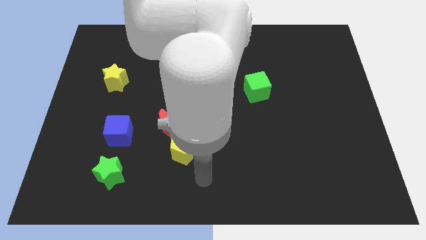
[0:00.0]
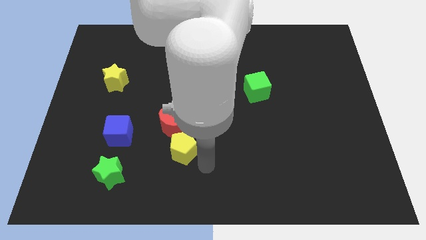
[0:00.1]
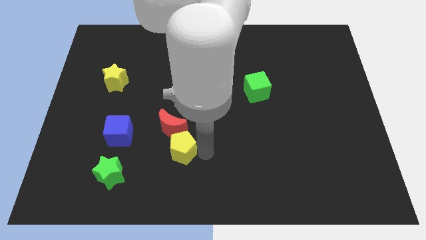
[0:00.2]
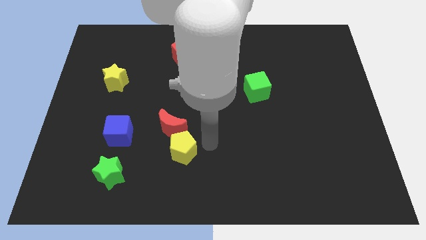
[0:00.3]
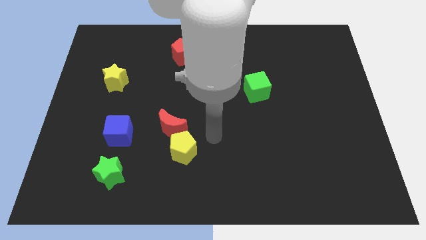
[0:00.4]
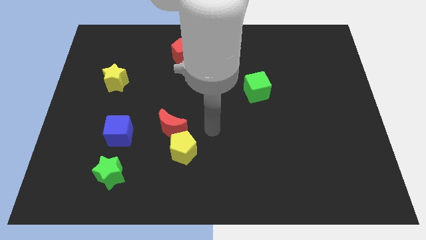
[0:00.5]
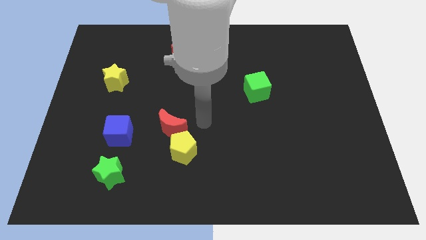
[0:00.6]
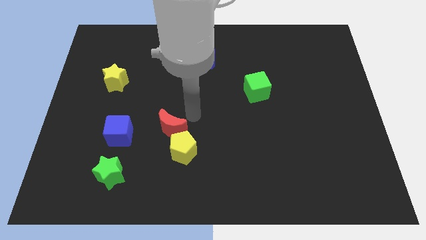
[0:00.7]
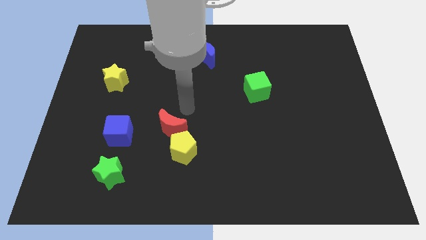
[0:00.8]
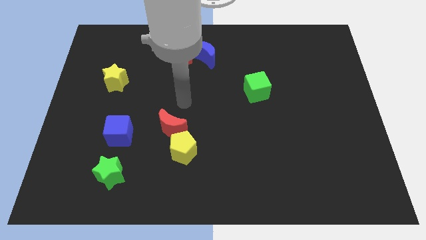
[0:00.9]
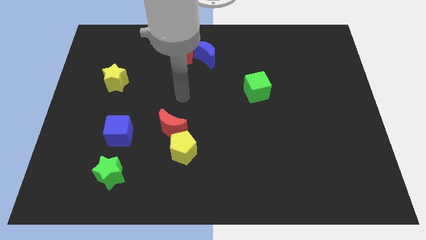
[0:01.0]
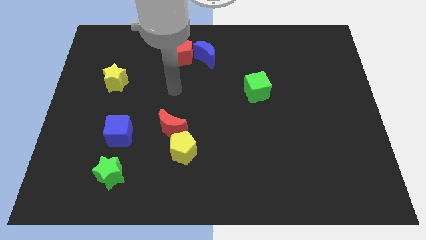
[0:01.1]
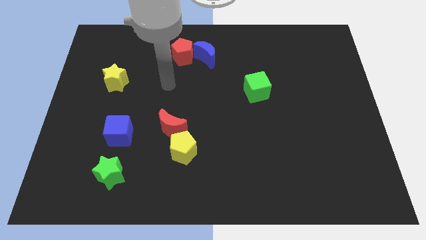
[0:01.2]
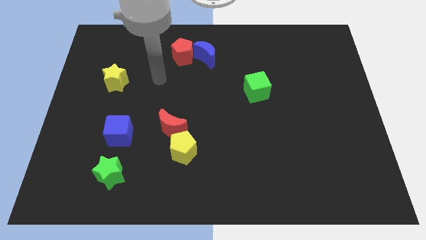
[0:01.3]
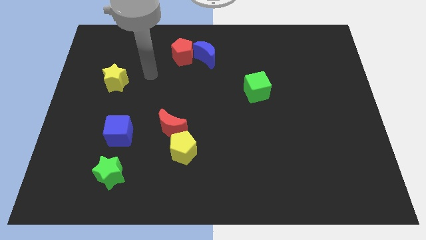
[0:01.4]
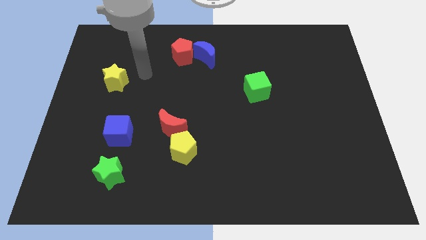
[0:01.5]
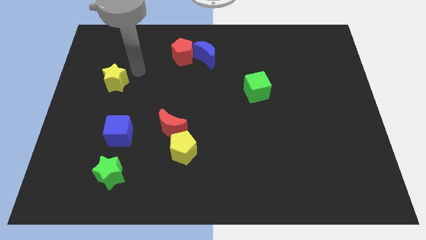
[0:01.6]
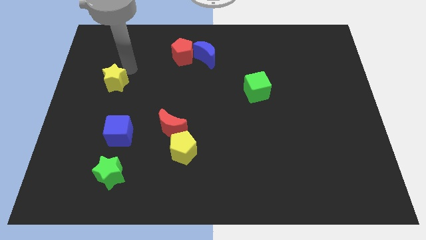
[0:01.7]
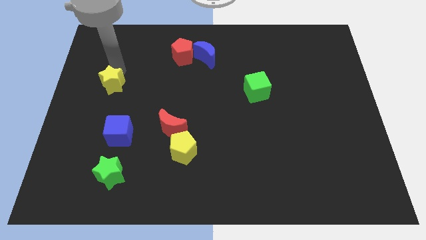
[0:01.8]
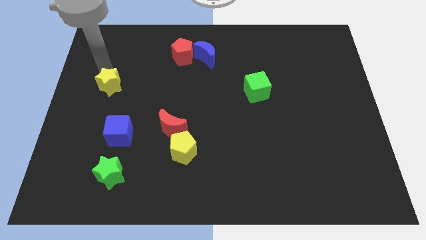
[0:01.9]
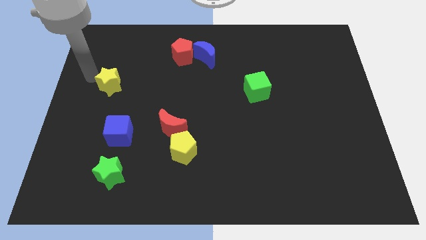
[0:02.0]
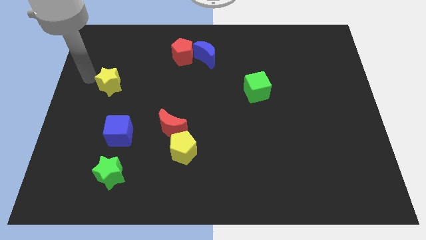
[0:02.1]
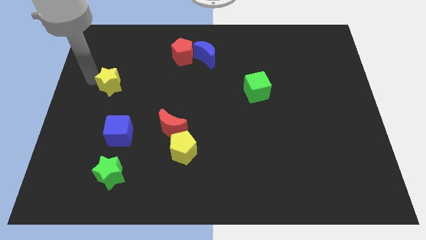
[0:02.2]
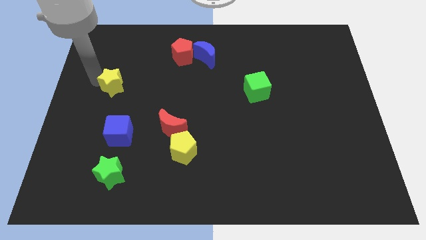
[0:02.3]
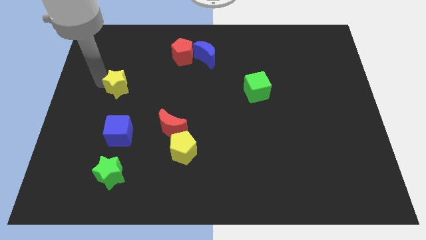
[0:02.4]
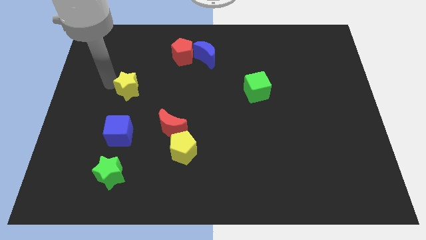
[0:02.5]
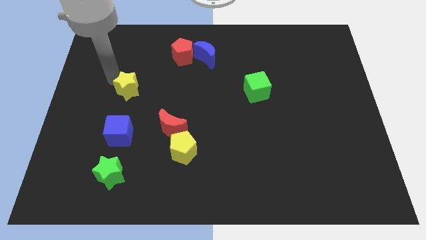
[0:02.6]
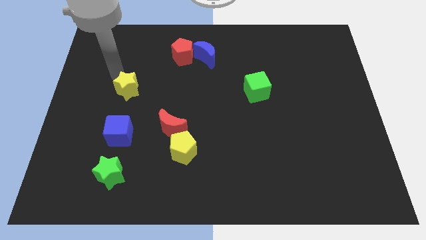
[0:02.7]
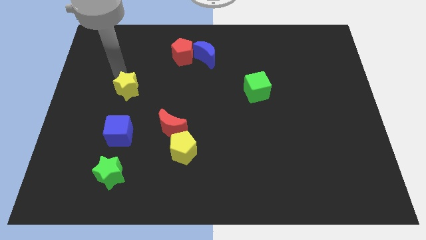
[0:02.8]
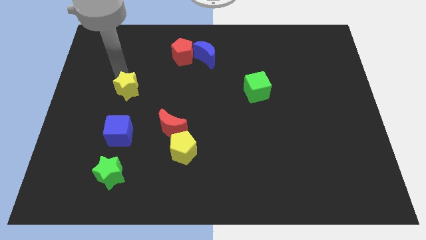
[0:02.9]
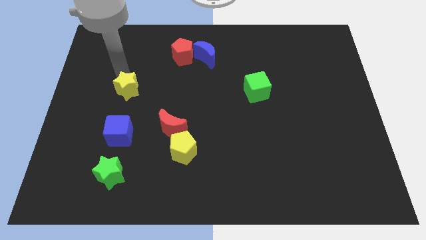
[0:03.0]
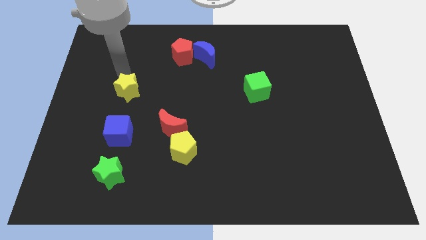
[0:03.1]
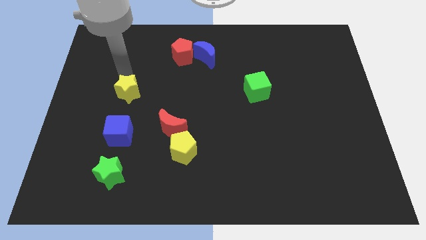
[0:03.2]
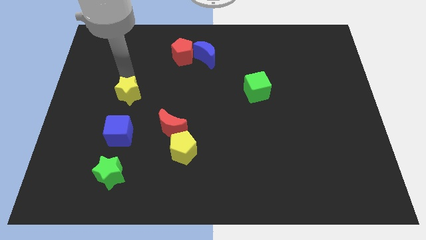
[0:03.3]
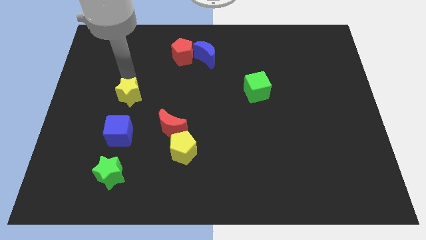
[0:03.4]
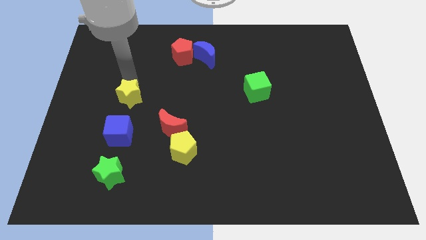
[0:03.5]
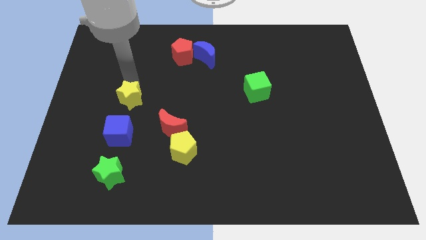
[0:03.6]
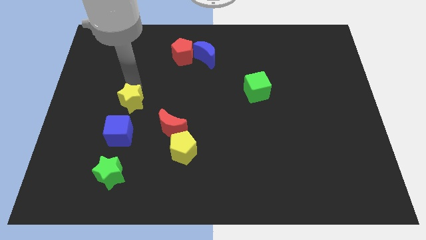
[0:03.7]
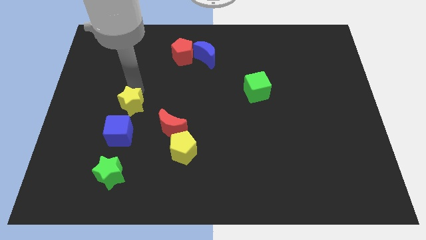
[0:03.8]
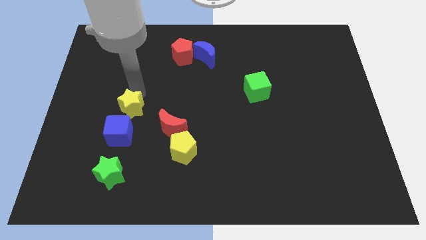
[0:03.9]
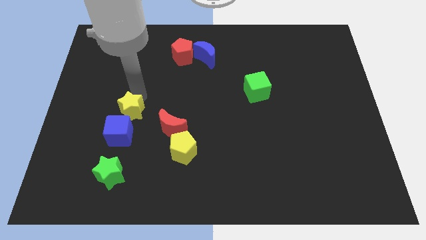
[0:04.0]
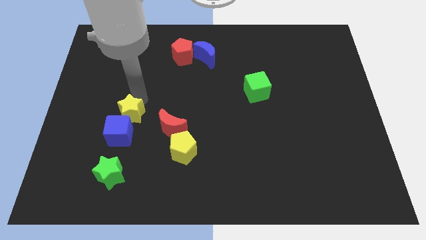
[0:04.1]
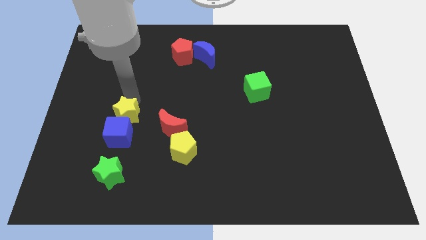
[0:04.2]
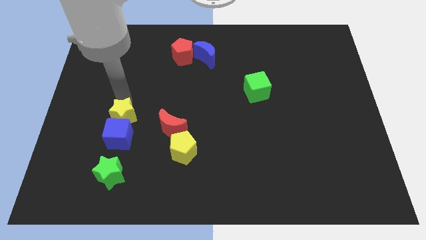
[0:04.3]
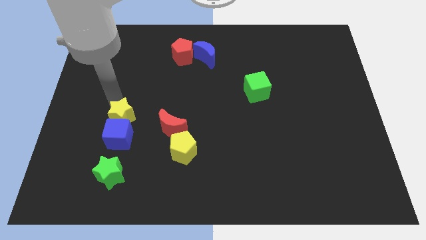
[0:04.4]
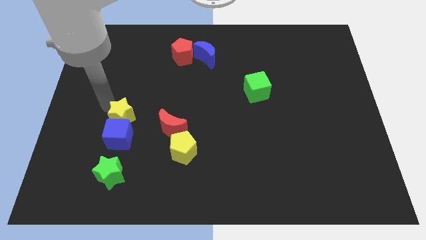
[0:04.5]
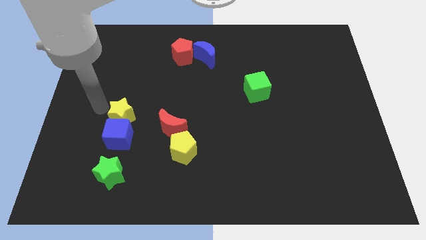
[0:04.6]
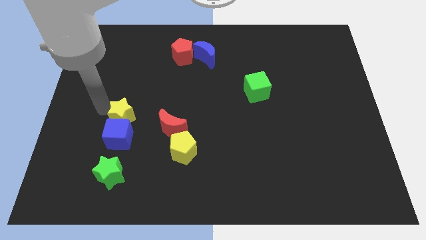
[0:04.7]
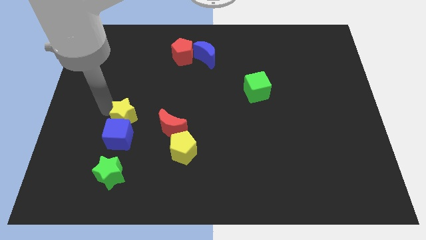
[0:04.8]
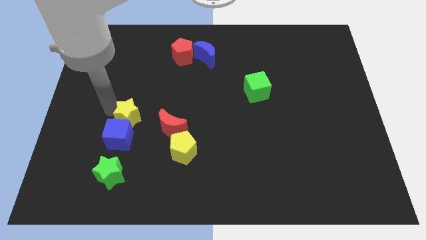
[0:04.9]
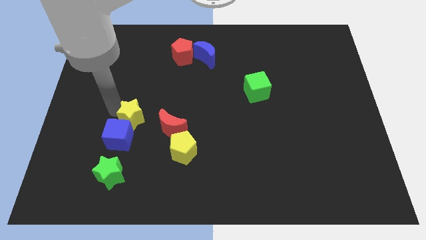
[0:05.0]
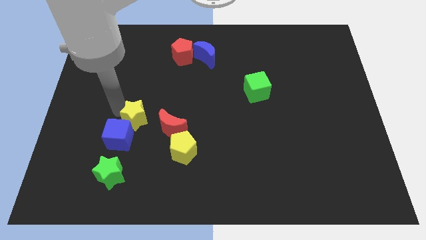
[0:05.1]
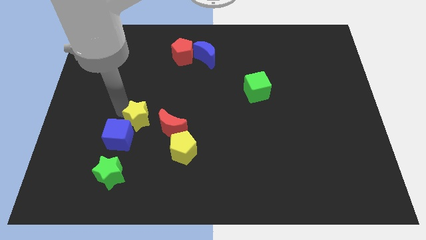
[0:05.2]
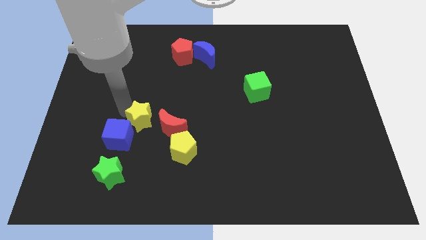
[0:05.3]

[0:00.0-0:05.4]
move the yellow star to the top left of the yellow pentagon

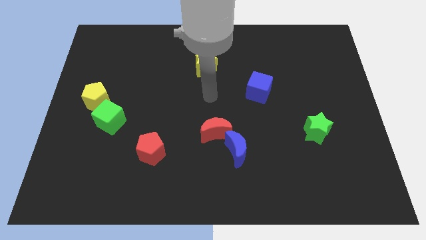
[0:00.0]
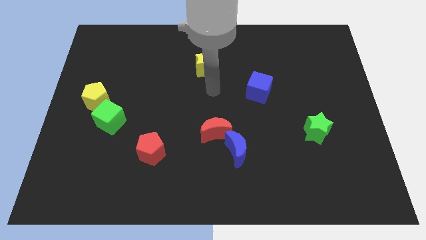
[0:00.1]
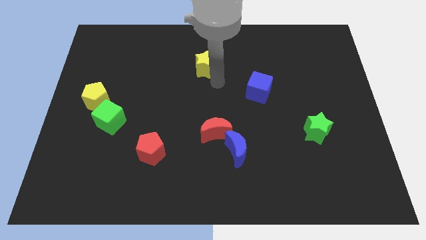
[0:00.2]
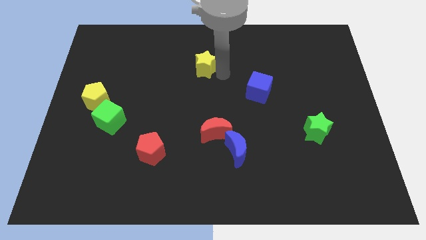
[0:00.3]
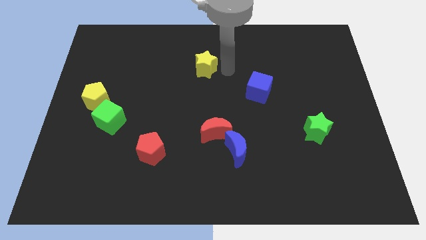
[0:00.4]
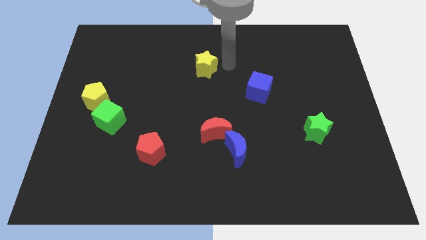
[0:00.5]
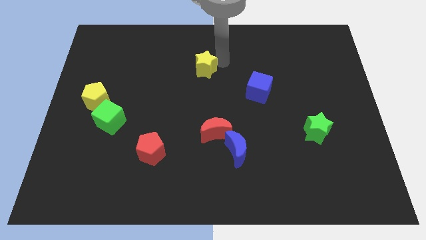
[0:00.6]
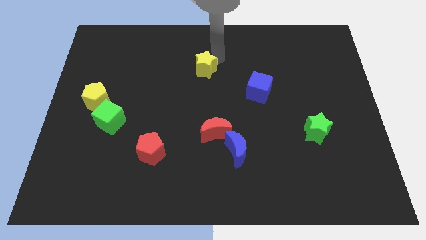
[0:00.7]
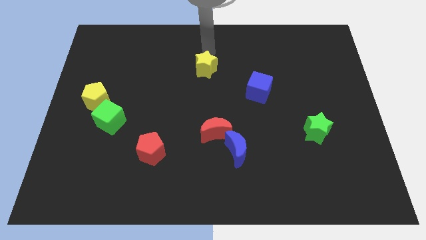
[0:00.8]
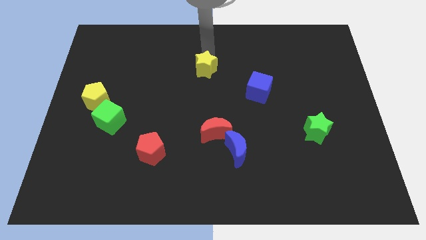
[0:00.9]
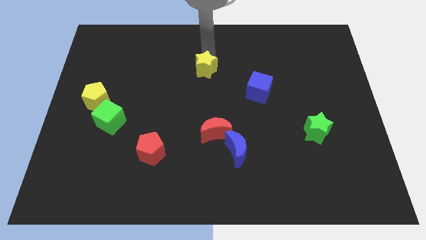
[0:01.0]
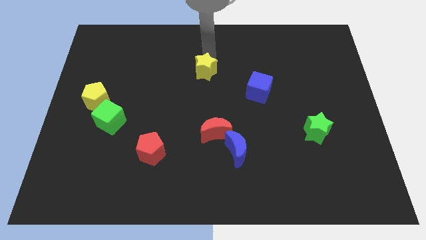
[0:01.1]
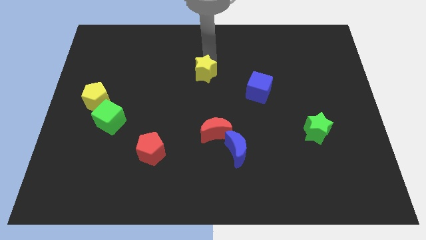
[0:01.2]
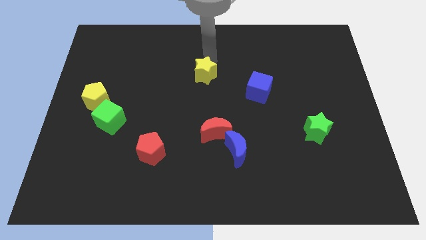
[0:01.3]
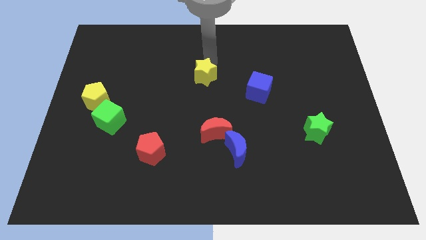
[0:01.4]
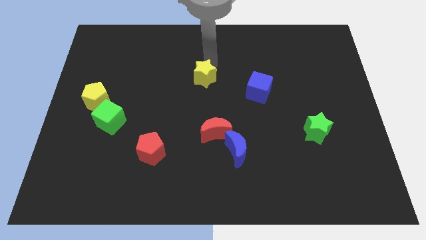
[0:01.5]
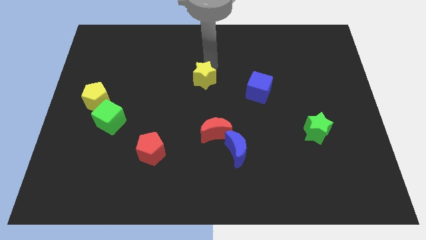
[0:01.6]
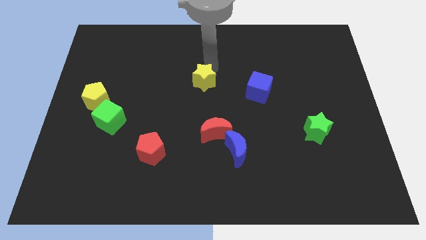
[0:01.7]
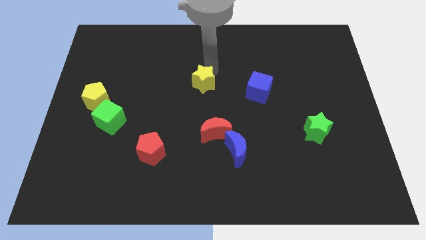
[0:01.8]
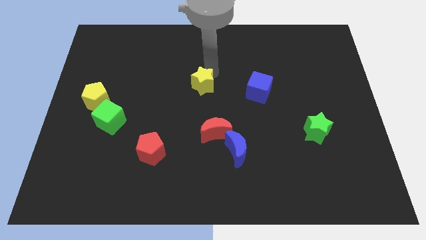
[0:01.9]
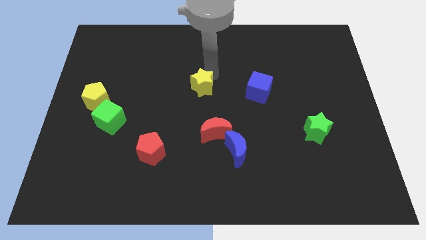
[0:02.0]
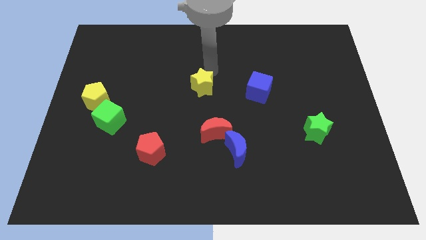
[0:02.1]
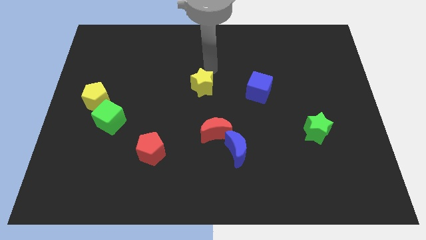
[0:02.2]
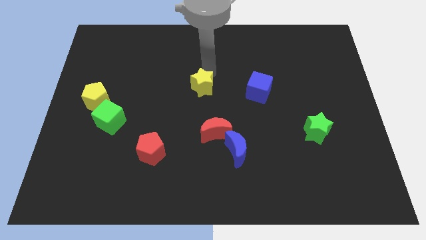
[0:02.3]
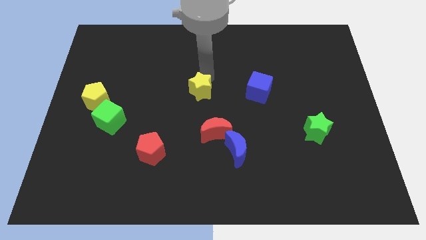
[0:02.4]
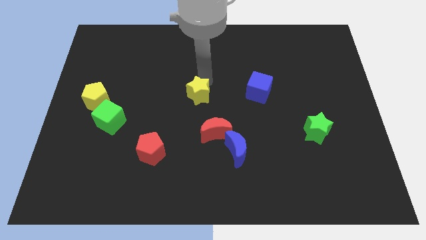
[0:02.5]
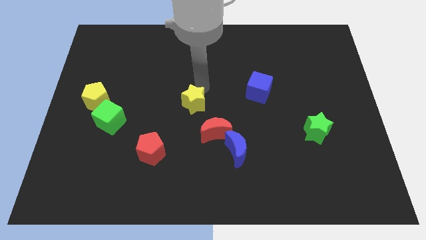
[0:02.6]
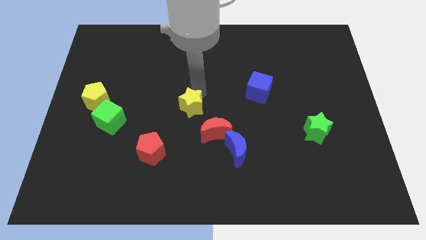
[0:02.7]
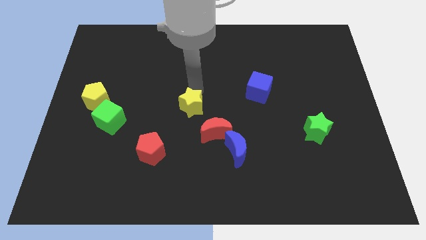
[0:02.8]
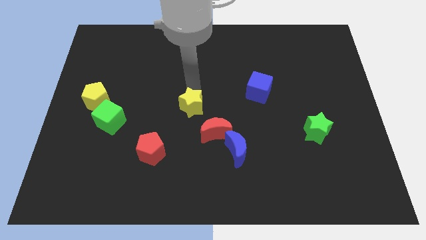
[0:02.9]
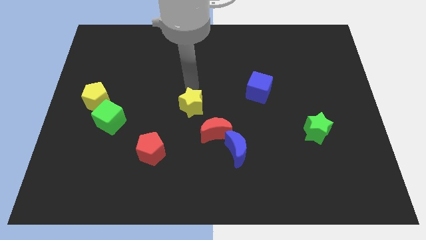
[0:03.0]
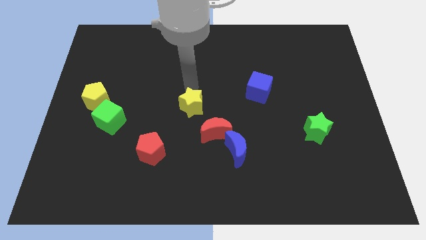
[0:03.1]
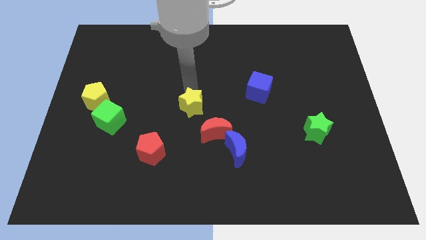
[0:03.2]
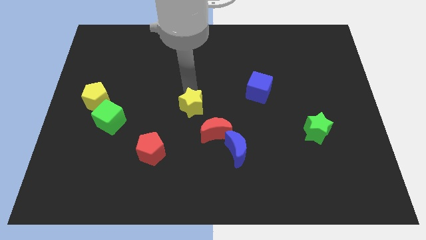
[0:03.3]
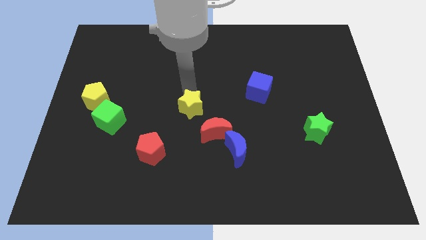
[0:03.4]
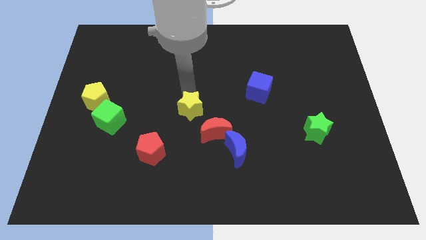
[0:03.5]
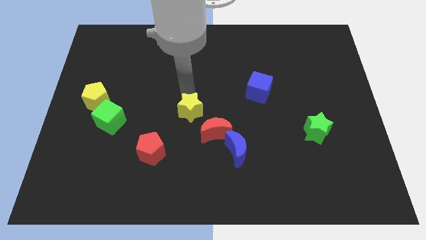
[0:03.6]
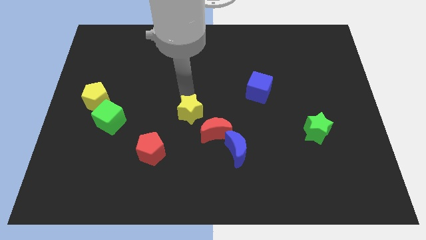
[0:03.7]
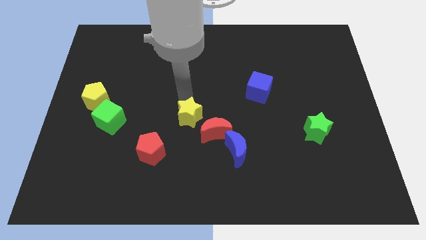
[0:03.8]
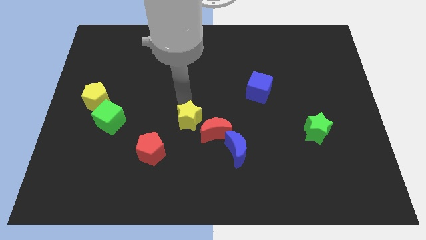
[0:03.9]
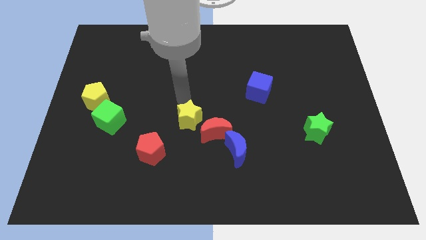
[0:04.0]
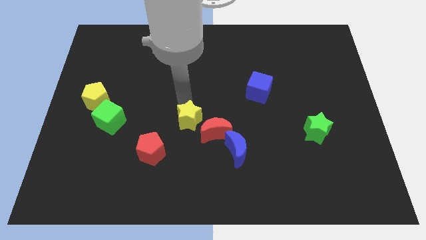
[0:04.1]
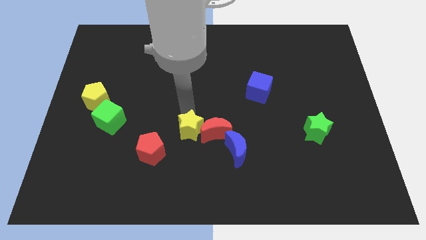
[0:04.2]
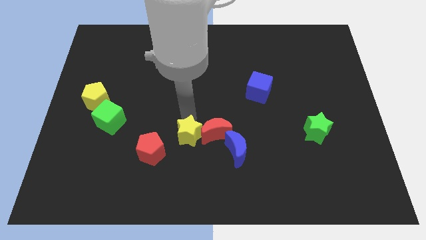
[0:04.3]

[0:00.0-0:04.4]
put the yellow star just right of the red pentagon
